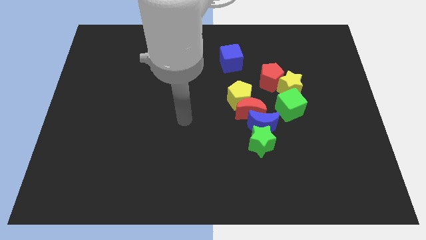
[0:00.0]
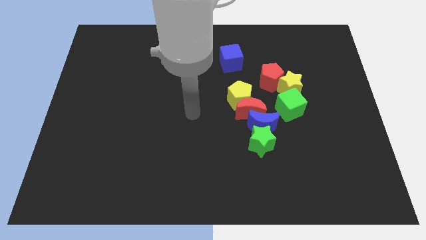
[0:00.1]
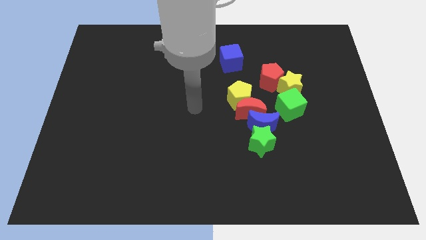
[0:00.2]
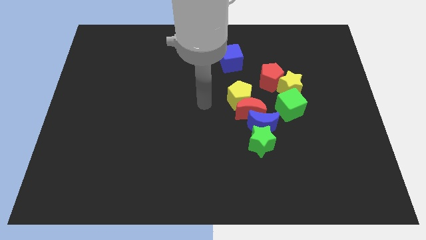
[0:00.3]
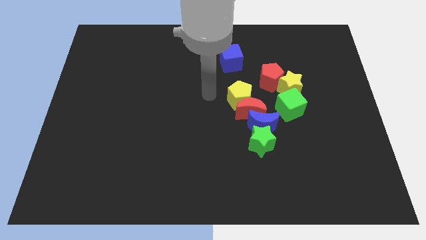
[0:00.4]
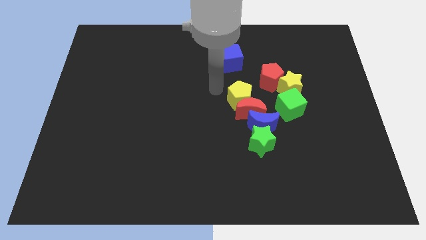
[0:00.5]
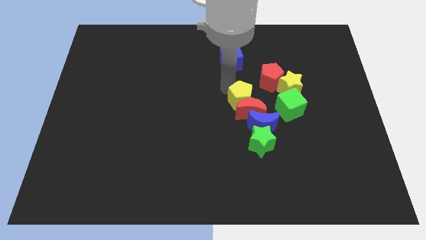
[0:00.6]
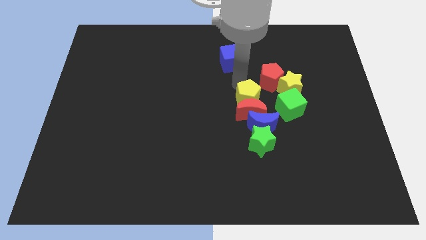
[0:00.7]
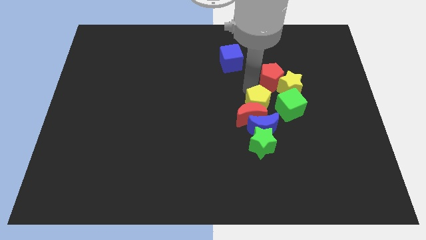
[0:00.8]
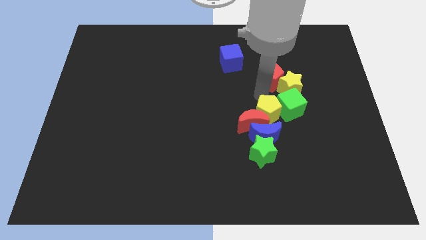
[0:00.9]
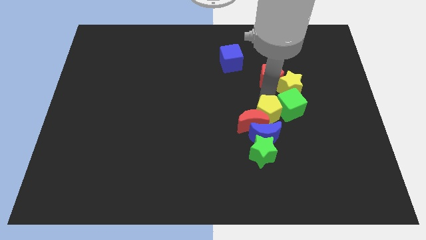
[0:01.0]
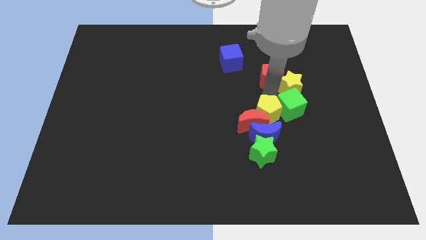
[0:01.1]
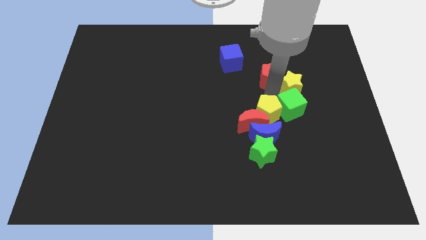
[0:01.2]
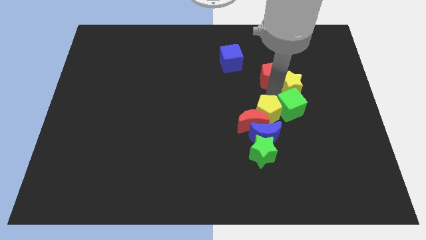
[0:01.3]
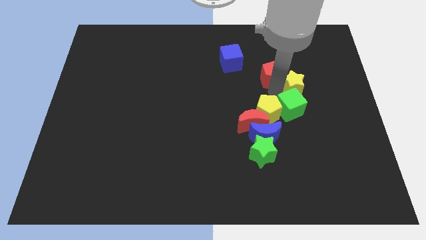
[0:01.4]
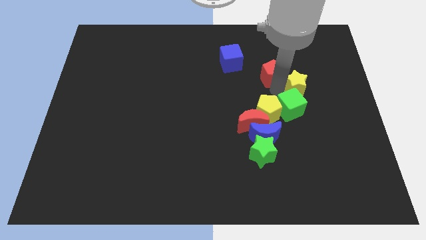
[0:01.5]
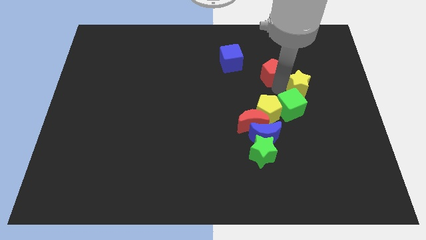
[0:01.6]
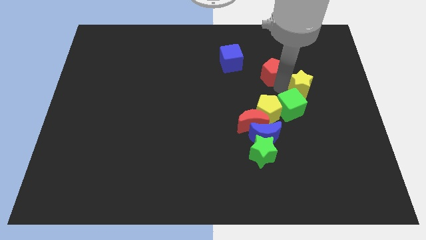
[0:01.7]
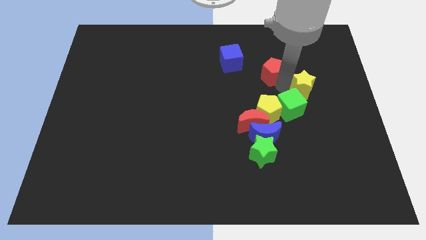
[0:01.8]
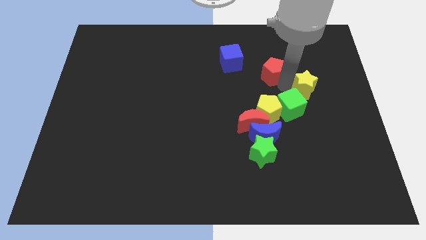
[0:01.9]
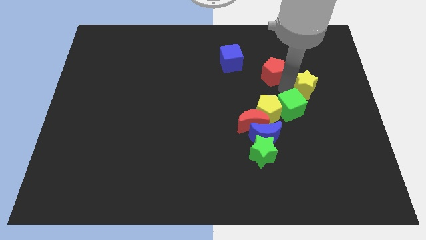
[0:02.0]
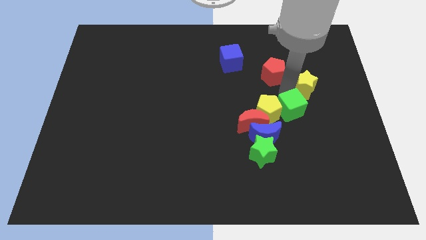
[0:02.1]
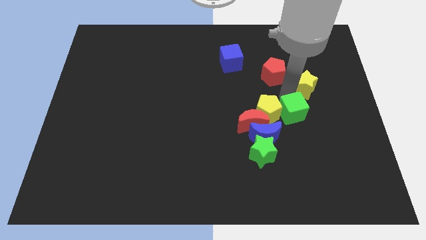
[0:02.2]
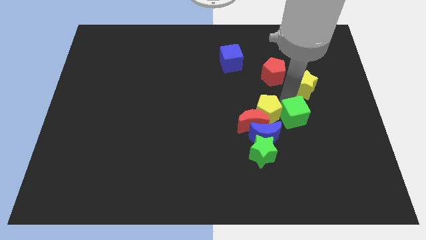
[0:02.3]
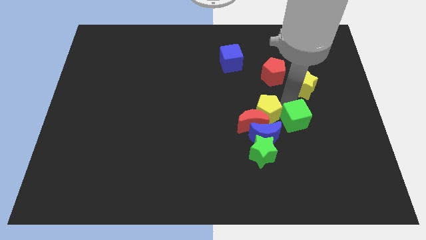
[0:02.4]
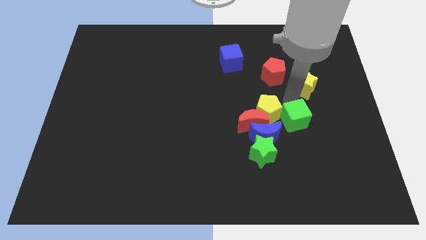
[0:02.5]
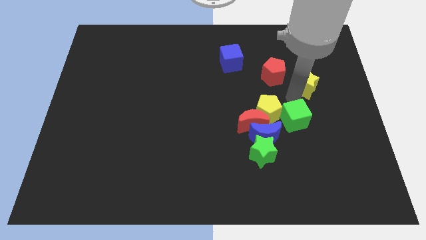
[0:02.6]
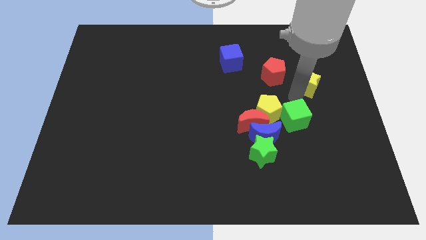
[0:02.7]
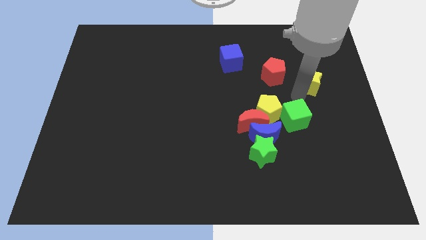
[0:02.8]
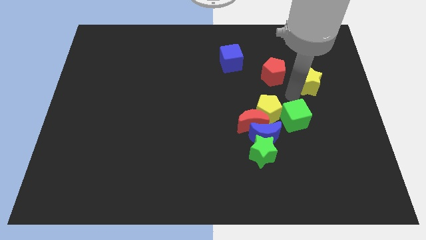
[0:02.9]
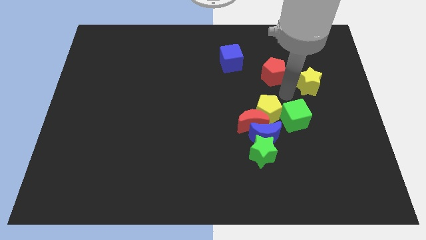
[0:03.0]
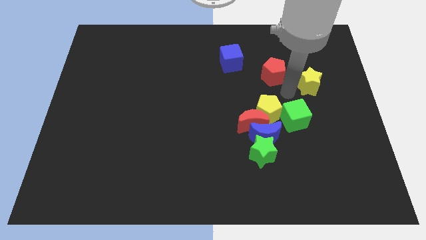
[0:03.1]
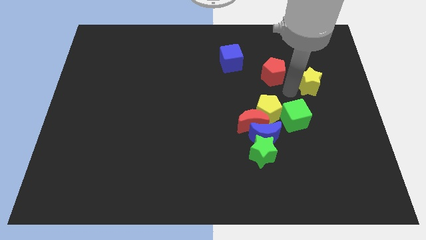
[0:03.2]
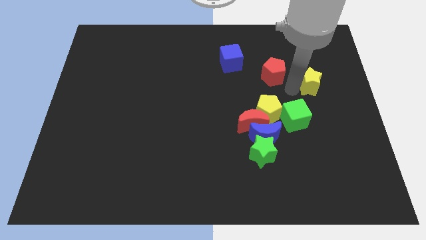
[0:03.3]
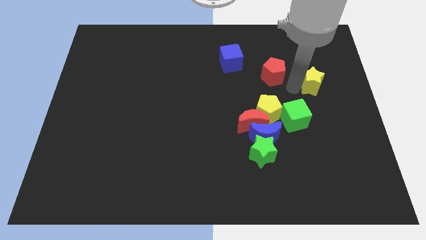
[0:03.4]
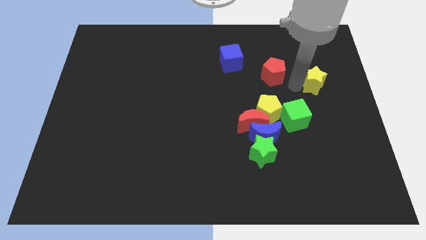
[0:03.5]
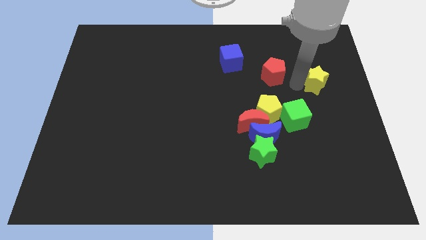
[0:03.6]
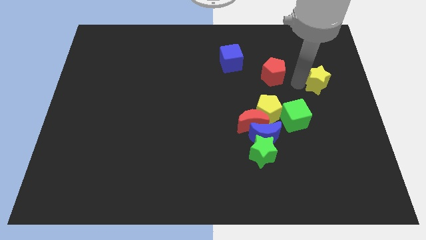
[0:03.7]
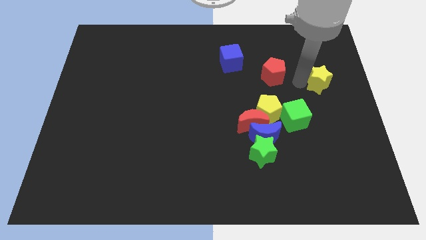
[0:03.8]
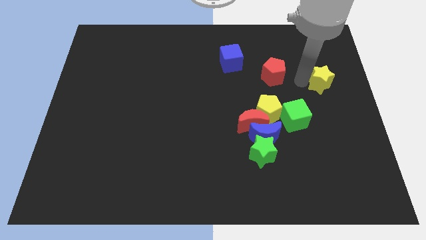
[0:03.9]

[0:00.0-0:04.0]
move the yellow star away from the red pentagon and green cube

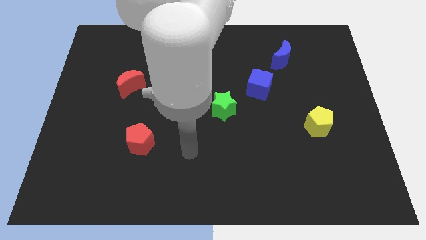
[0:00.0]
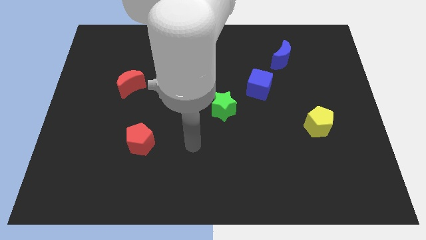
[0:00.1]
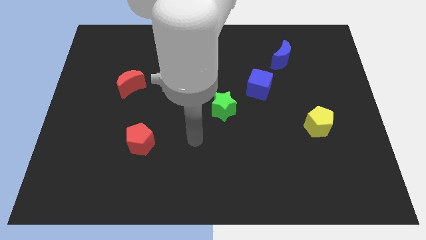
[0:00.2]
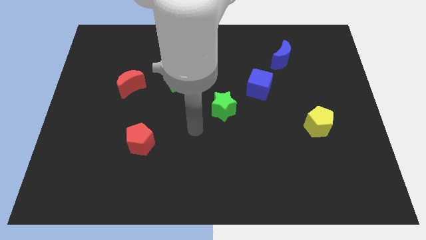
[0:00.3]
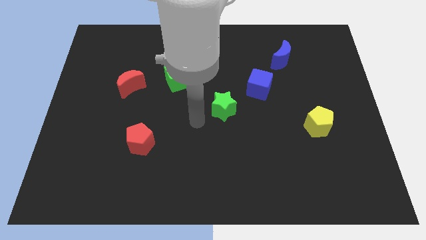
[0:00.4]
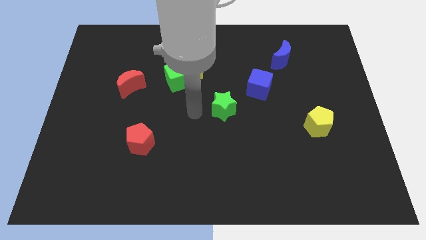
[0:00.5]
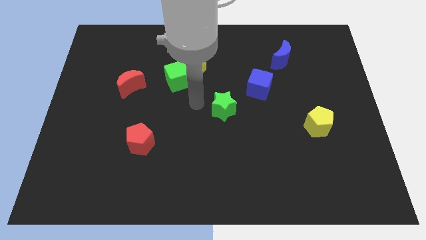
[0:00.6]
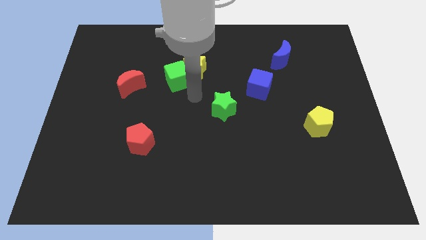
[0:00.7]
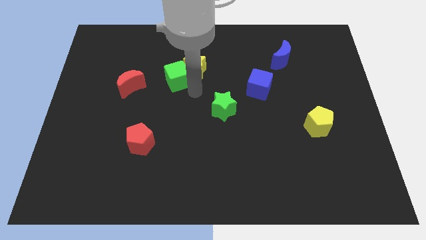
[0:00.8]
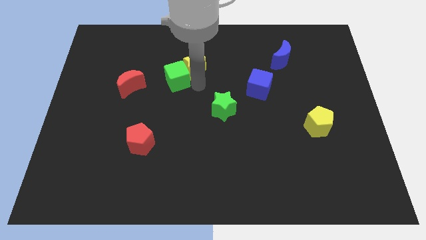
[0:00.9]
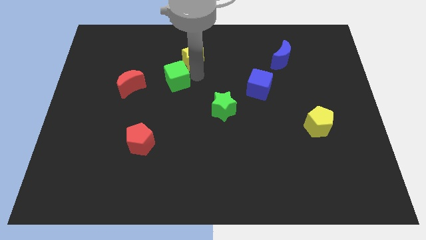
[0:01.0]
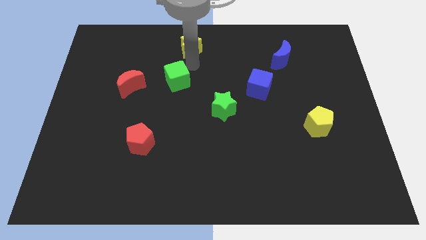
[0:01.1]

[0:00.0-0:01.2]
move the green cube away from the yellow star

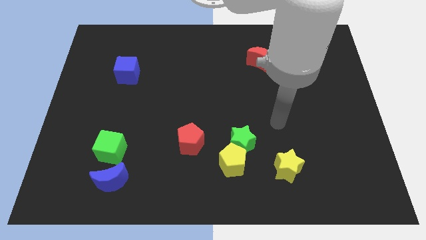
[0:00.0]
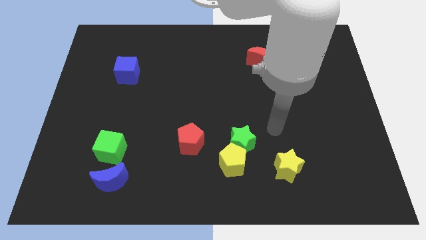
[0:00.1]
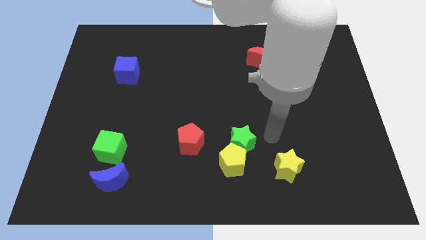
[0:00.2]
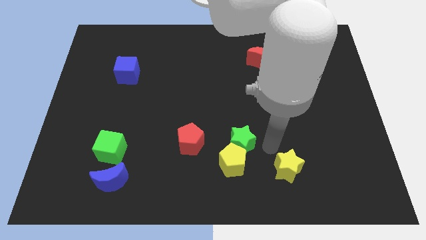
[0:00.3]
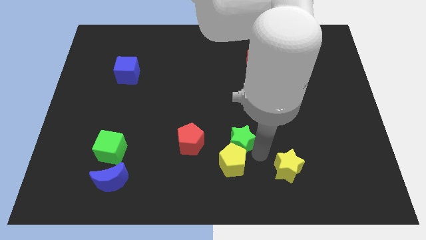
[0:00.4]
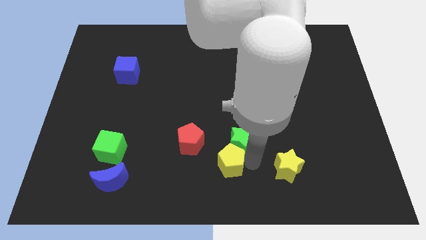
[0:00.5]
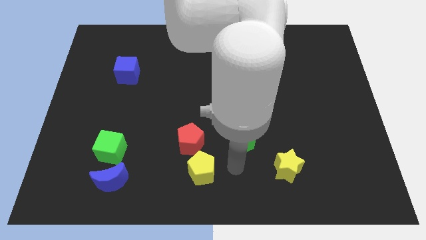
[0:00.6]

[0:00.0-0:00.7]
pull the green star apart from the yellow pentagon

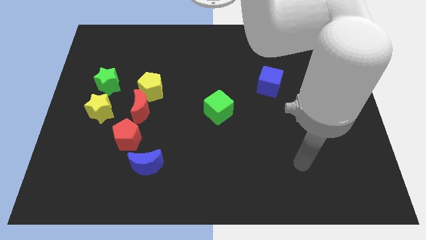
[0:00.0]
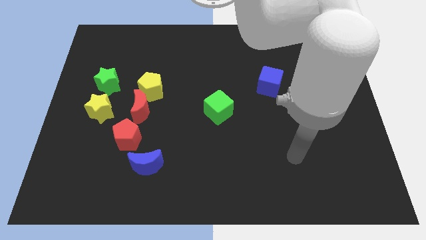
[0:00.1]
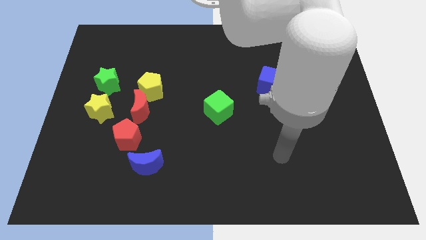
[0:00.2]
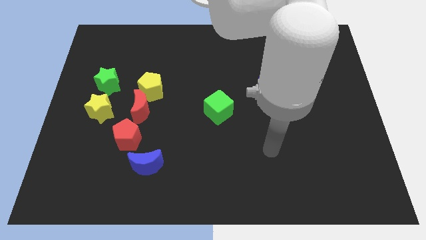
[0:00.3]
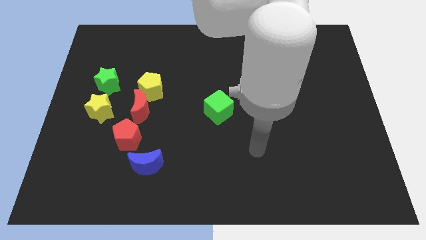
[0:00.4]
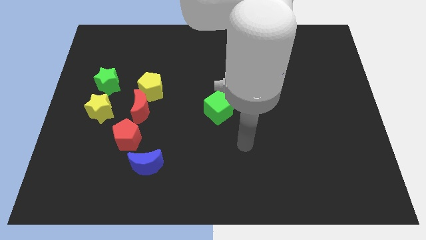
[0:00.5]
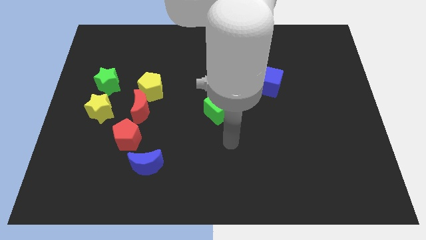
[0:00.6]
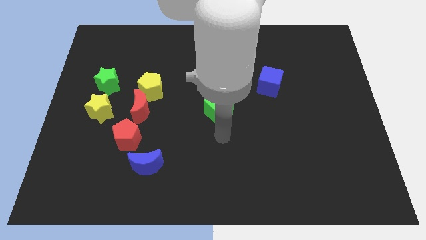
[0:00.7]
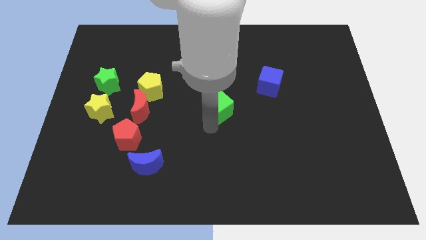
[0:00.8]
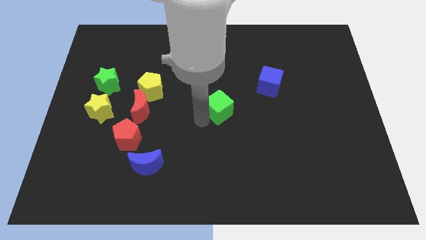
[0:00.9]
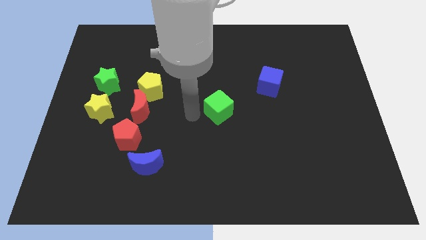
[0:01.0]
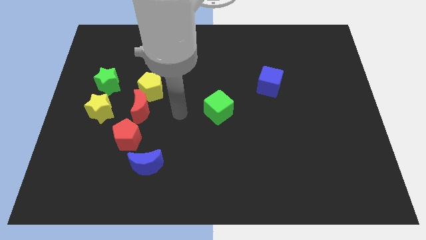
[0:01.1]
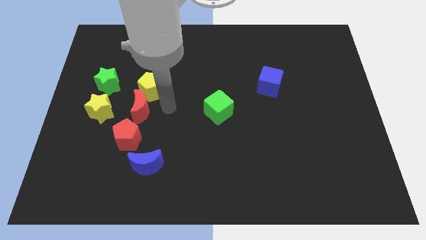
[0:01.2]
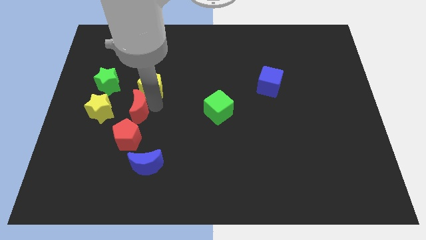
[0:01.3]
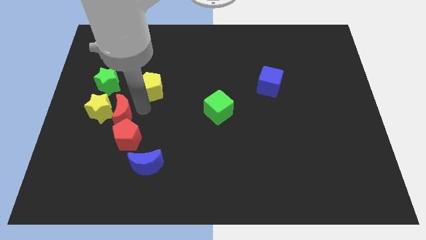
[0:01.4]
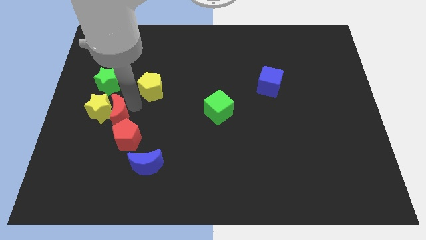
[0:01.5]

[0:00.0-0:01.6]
pull the yellow pentagon apart from the red moon

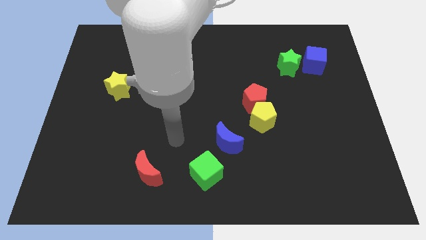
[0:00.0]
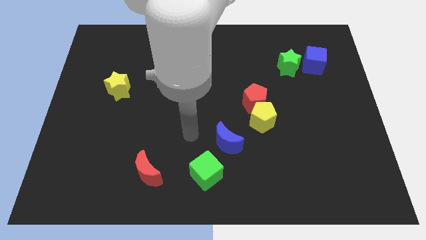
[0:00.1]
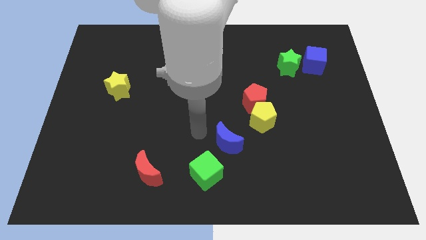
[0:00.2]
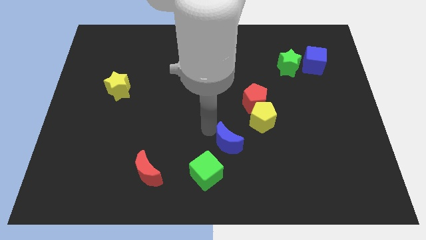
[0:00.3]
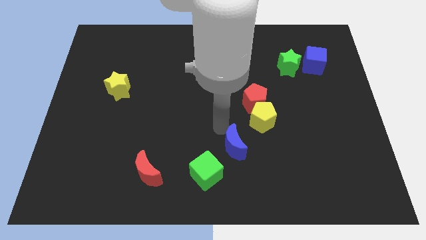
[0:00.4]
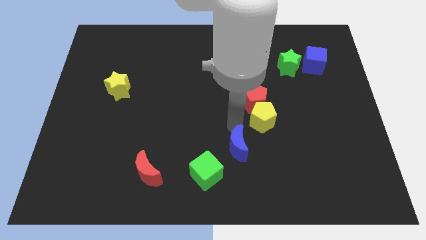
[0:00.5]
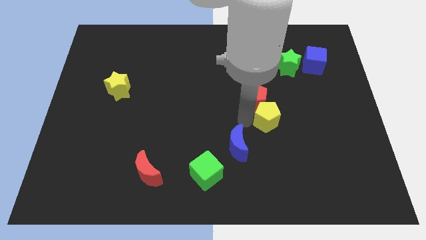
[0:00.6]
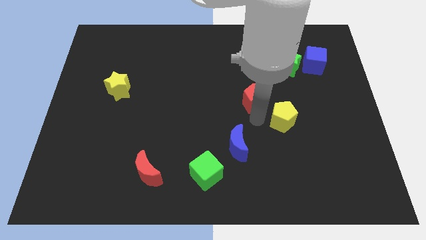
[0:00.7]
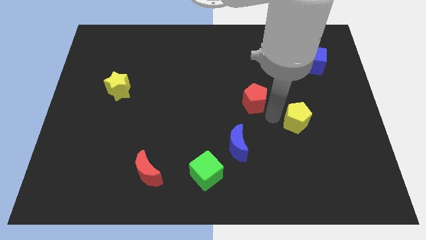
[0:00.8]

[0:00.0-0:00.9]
pull the red pentagon apart from the yellow pentagon

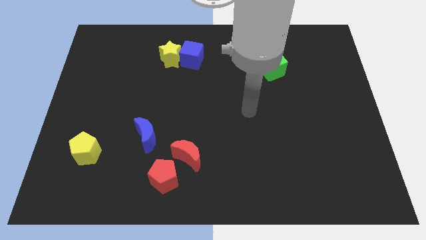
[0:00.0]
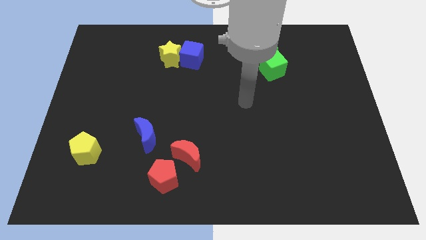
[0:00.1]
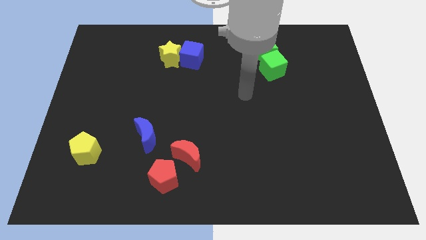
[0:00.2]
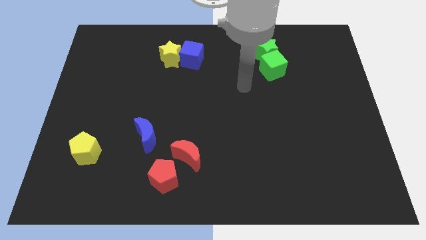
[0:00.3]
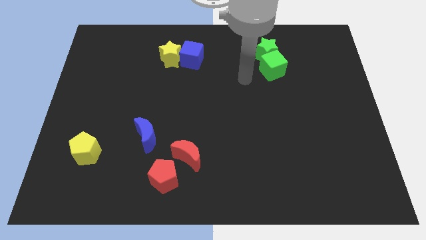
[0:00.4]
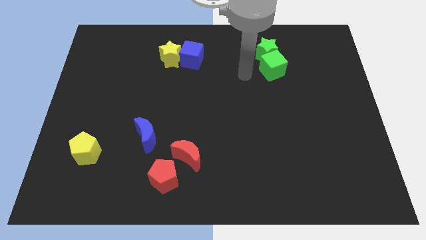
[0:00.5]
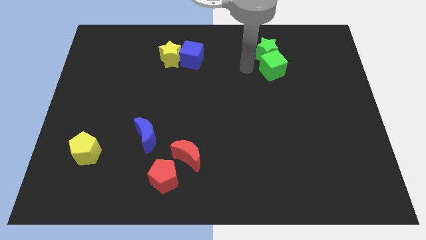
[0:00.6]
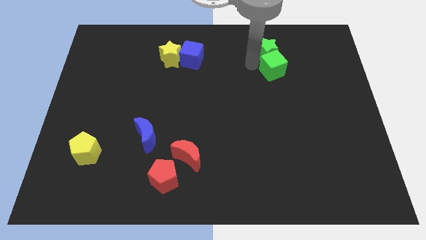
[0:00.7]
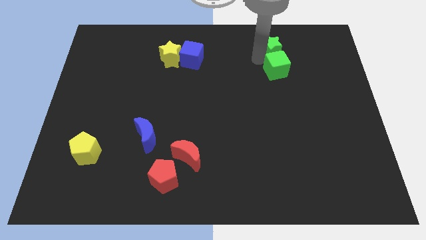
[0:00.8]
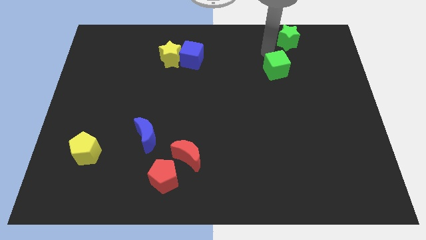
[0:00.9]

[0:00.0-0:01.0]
pull the green cube apart from the green star

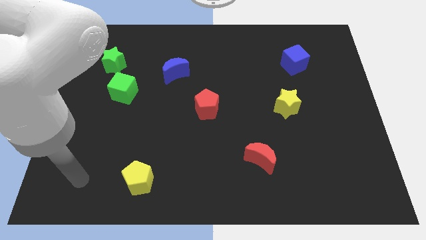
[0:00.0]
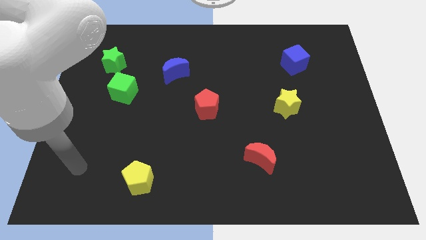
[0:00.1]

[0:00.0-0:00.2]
separate the green cube from the green star
